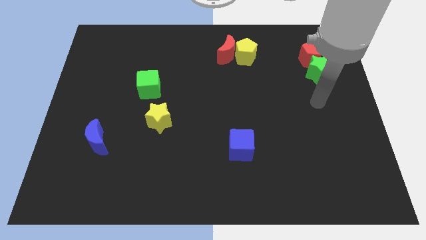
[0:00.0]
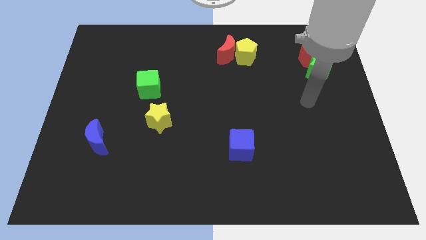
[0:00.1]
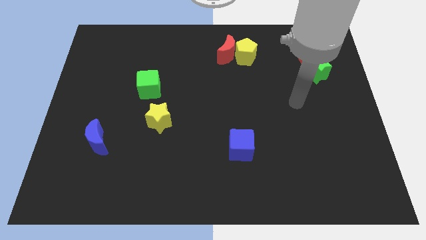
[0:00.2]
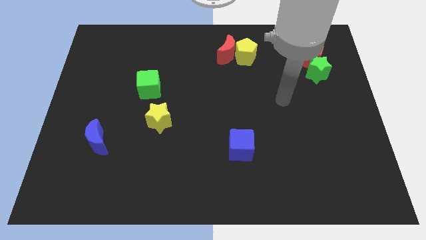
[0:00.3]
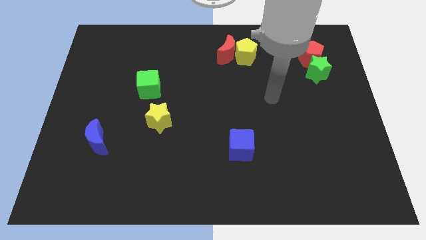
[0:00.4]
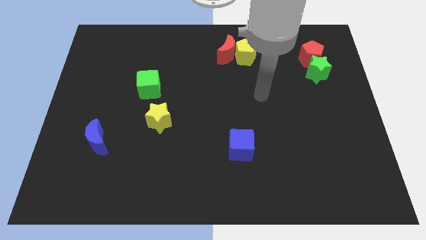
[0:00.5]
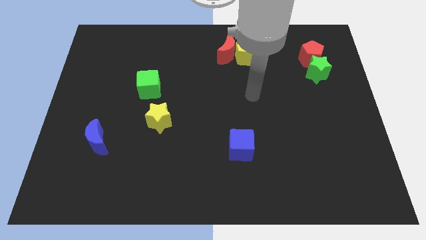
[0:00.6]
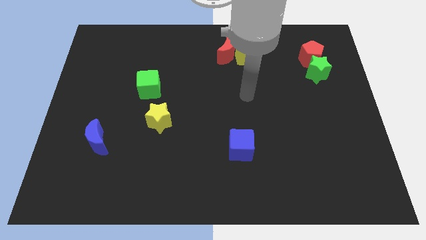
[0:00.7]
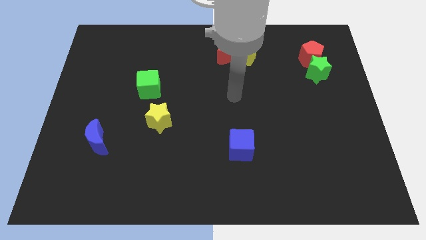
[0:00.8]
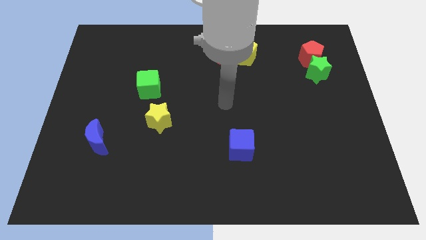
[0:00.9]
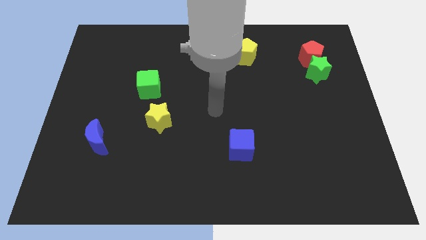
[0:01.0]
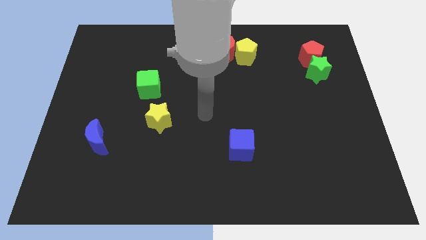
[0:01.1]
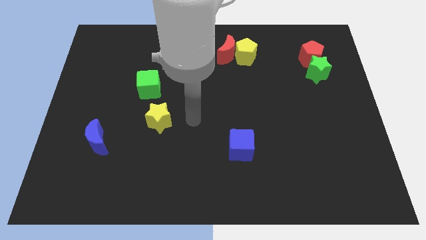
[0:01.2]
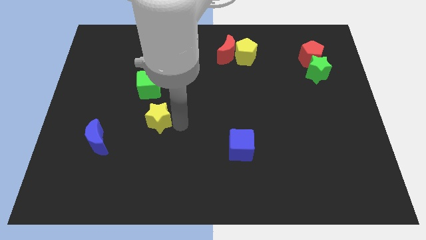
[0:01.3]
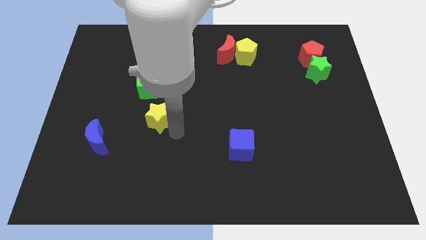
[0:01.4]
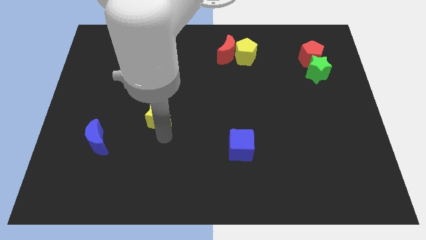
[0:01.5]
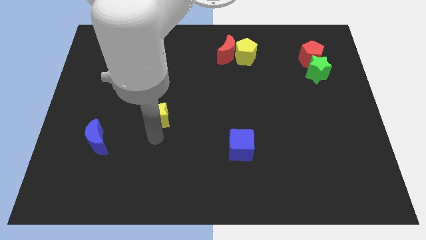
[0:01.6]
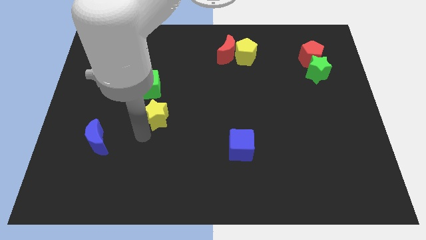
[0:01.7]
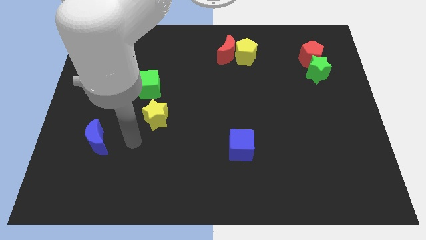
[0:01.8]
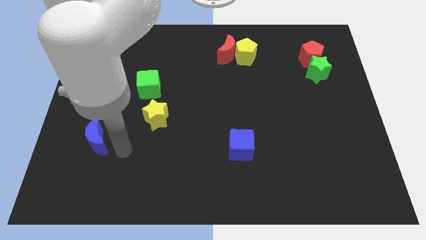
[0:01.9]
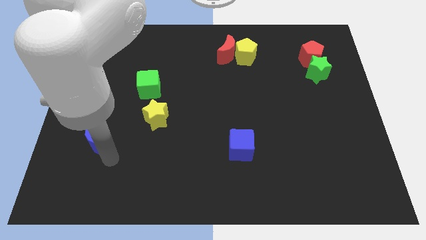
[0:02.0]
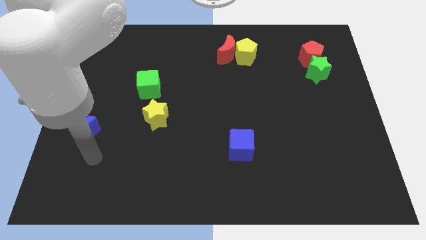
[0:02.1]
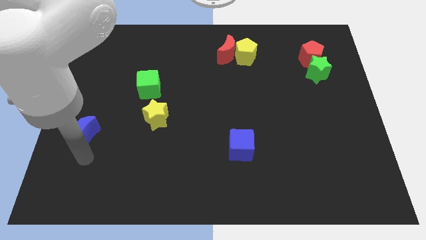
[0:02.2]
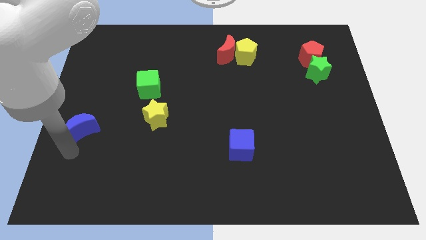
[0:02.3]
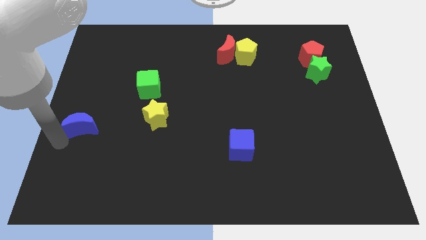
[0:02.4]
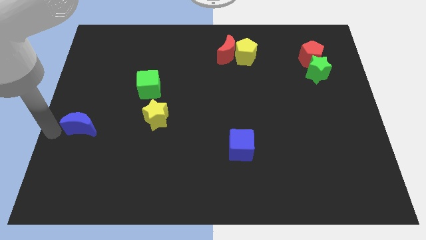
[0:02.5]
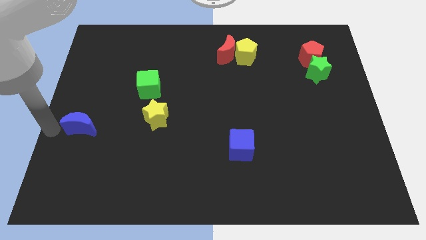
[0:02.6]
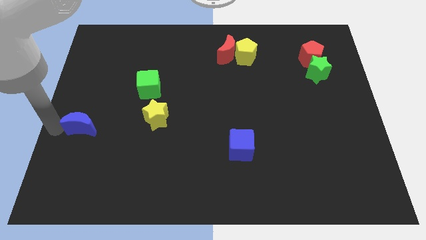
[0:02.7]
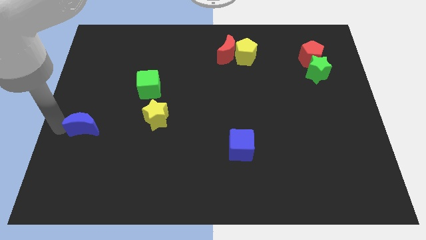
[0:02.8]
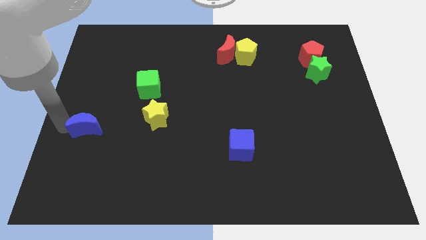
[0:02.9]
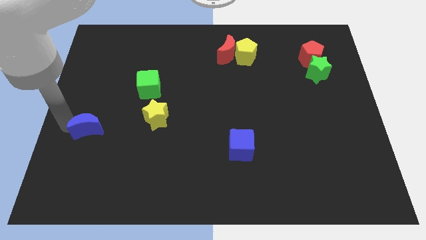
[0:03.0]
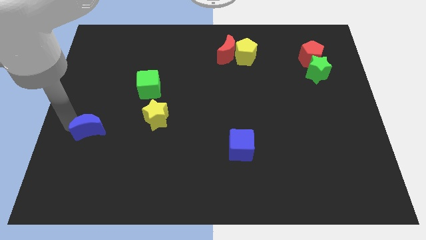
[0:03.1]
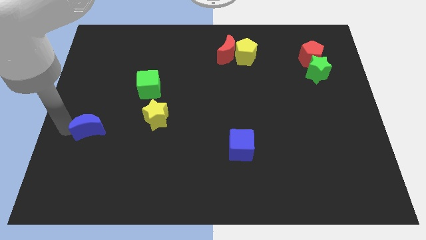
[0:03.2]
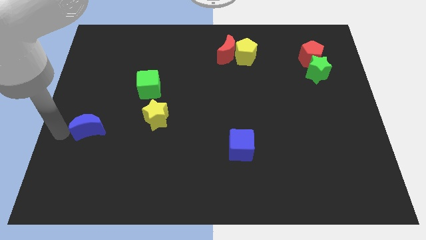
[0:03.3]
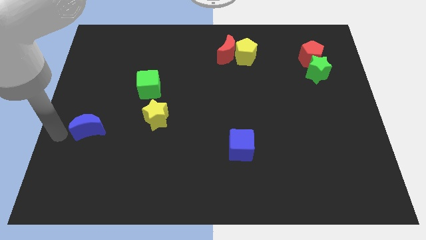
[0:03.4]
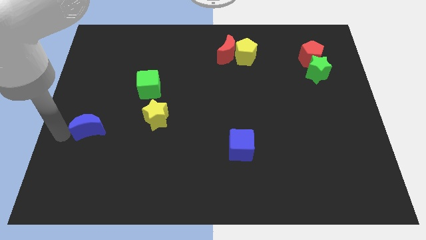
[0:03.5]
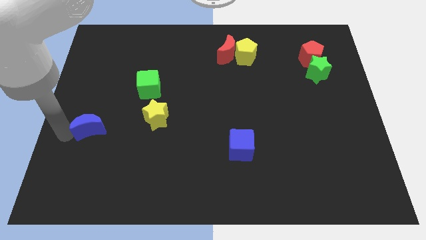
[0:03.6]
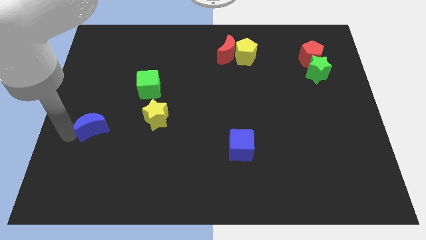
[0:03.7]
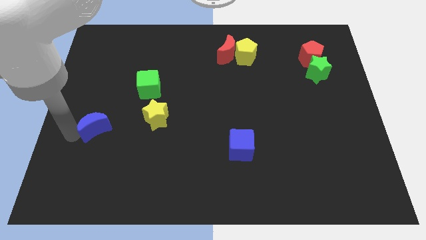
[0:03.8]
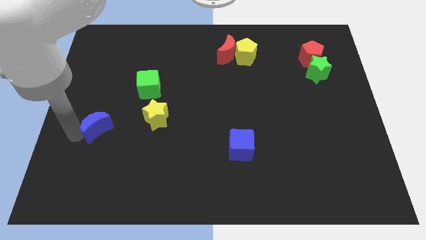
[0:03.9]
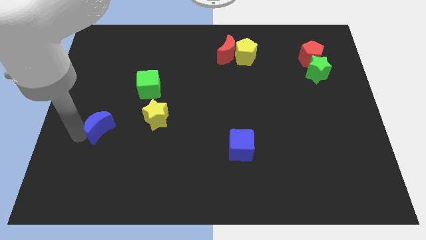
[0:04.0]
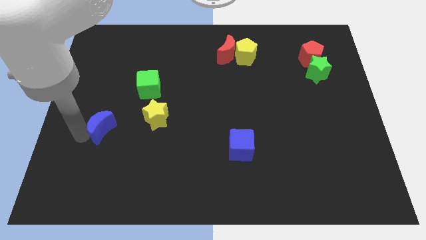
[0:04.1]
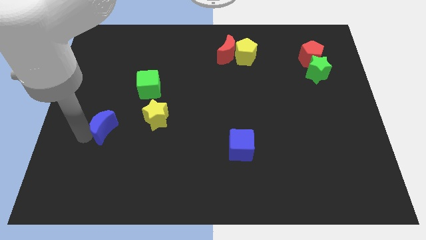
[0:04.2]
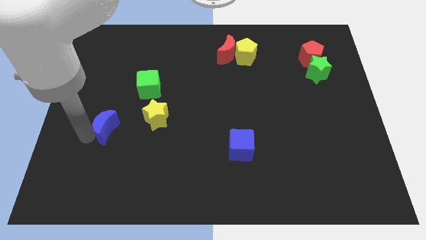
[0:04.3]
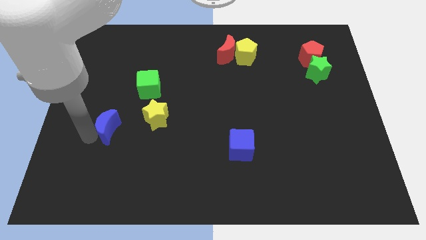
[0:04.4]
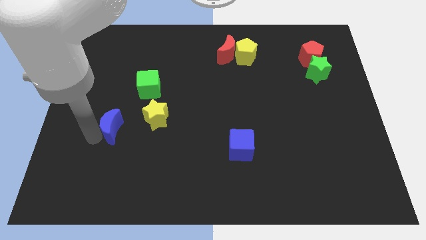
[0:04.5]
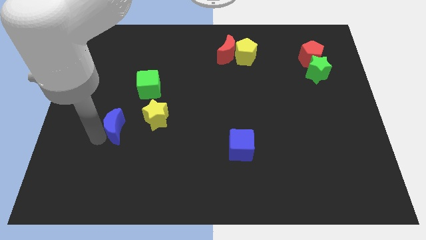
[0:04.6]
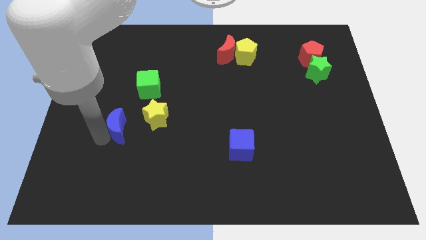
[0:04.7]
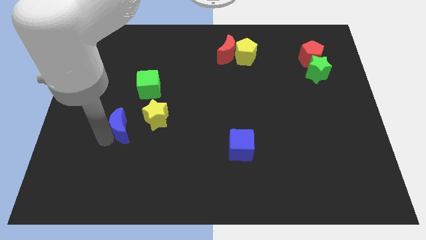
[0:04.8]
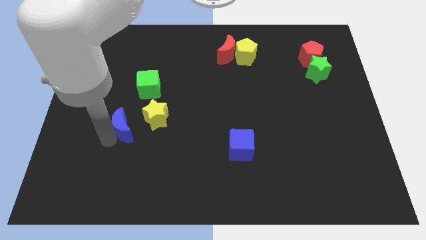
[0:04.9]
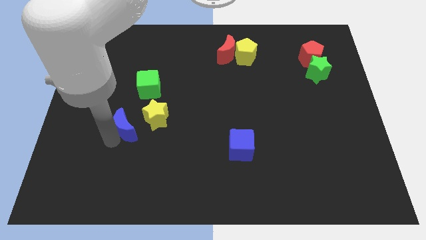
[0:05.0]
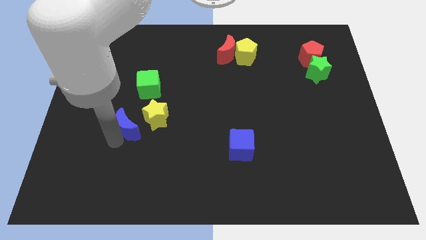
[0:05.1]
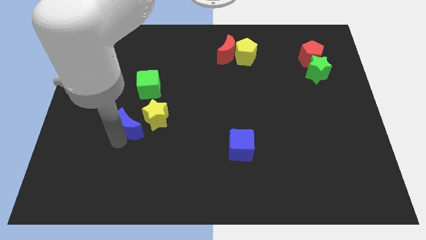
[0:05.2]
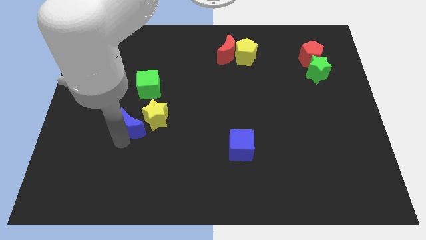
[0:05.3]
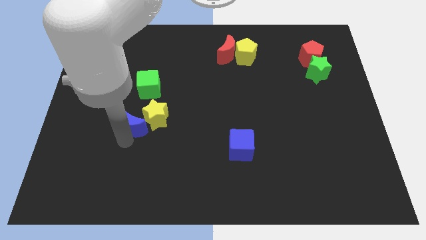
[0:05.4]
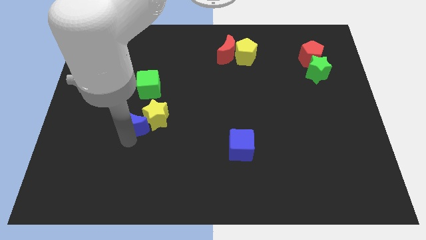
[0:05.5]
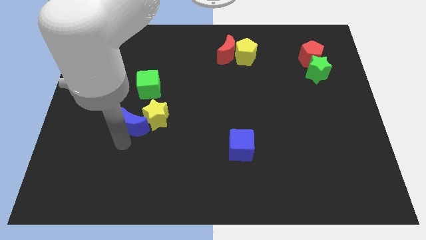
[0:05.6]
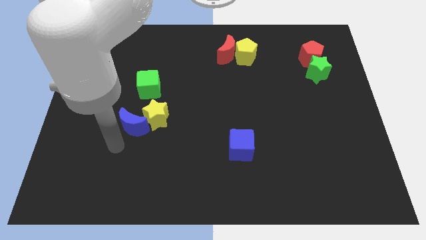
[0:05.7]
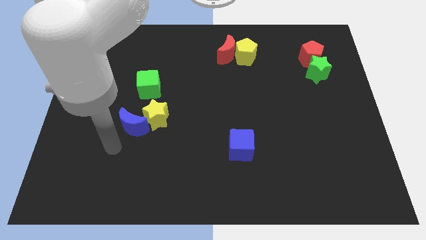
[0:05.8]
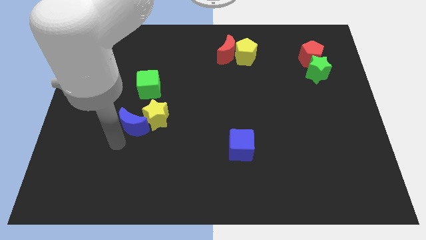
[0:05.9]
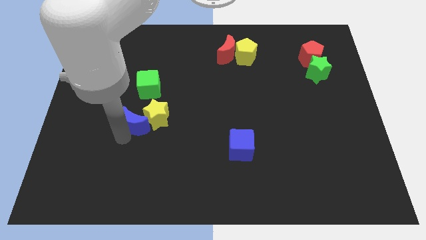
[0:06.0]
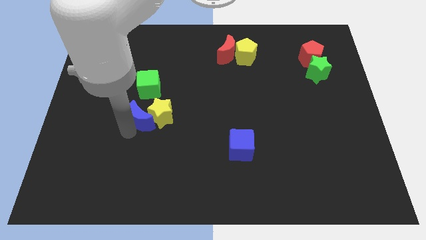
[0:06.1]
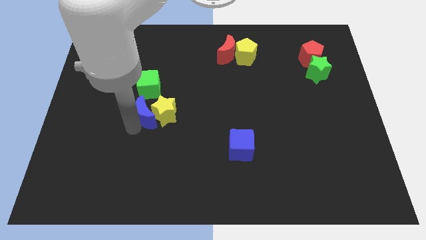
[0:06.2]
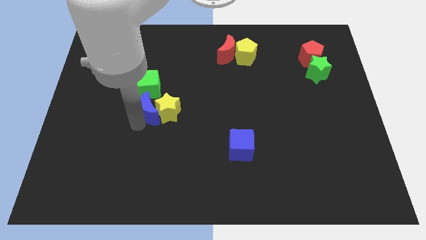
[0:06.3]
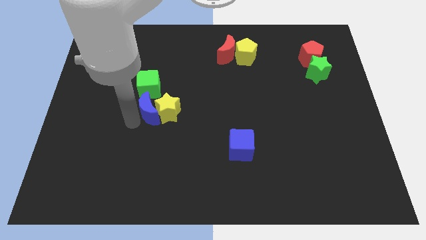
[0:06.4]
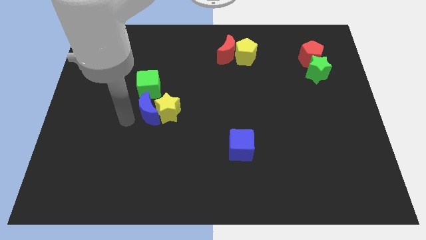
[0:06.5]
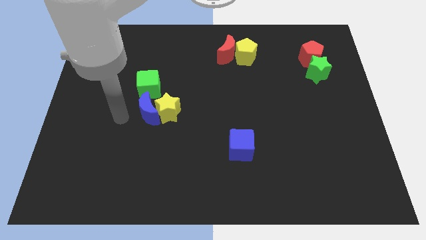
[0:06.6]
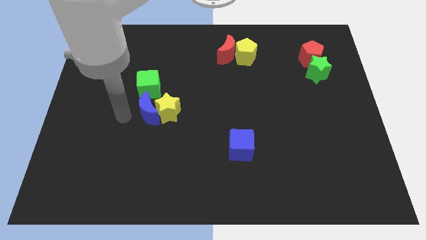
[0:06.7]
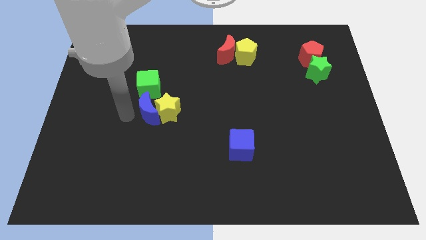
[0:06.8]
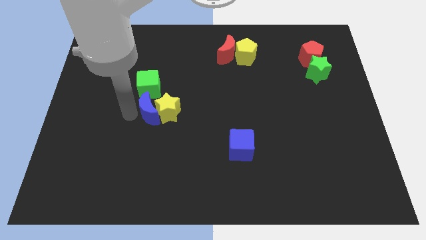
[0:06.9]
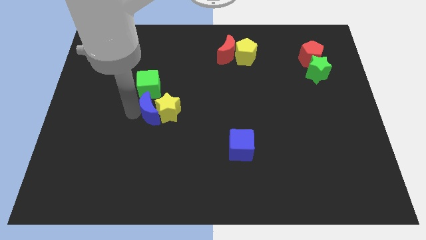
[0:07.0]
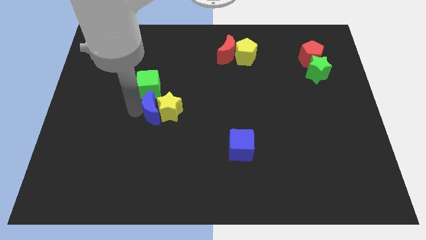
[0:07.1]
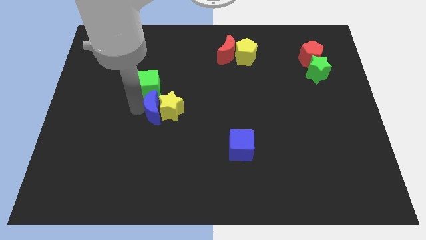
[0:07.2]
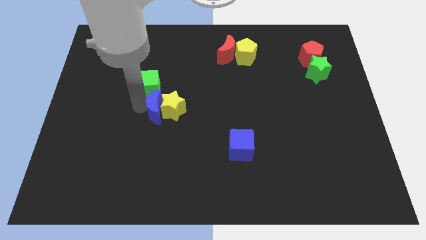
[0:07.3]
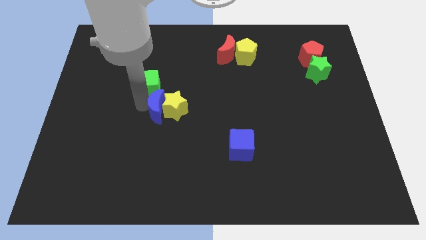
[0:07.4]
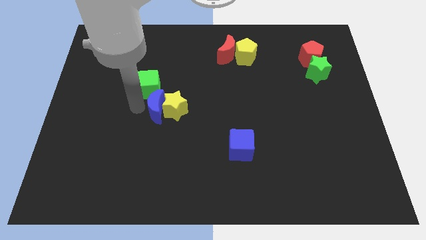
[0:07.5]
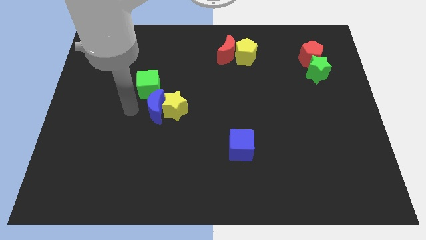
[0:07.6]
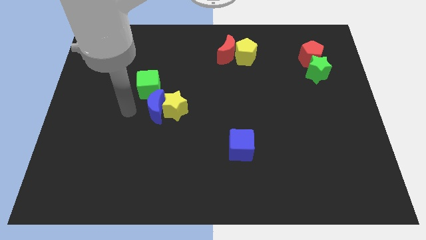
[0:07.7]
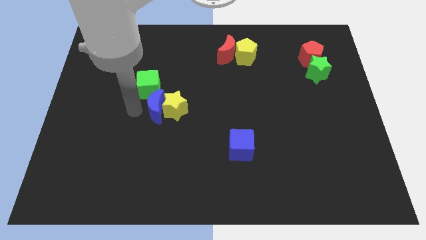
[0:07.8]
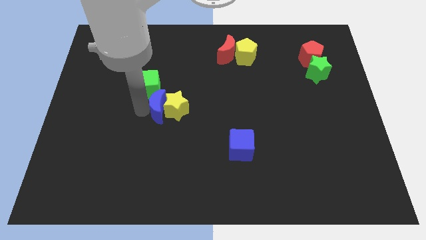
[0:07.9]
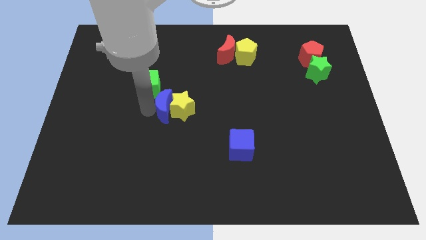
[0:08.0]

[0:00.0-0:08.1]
move the blue moon to the middle of the board
